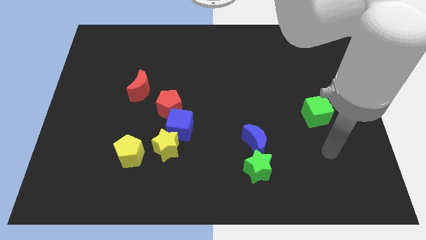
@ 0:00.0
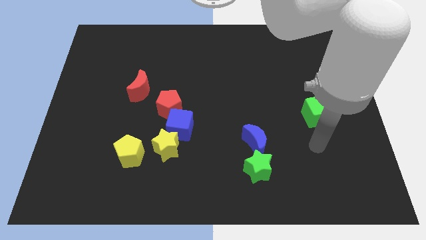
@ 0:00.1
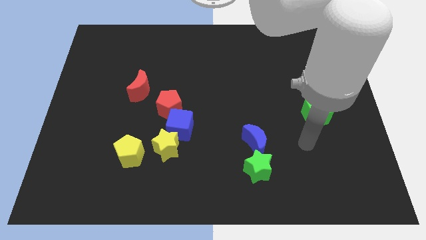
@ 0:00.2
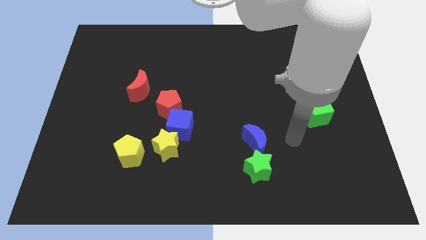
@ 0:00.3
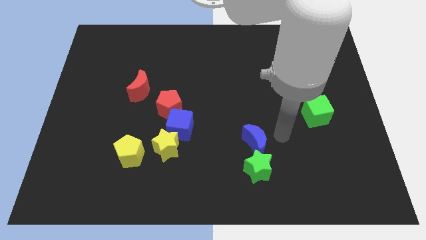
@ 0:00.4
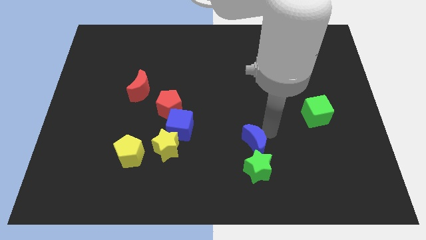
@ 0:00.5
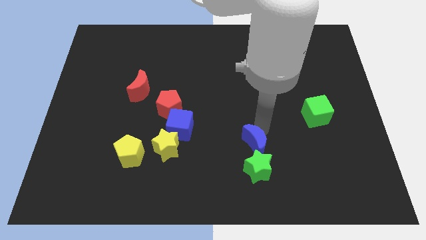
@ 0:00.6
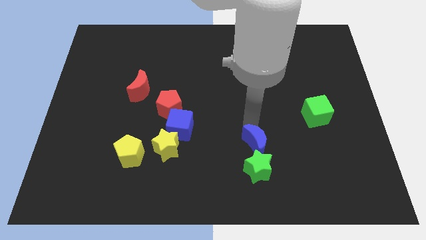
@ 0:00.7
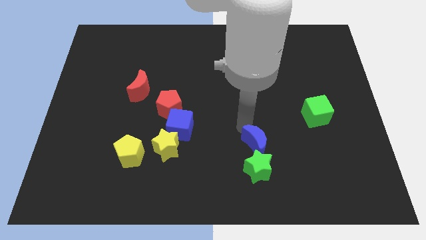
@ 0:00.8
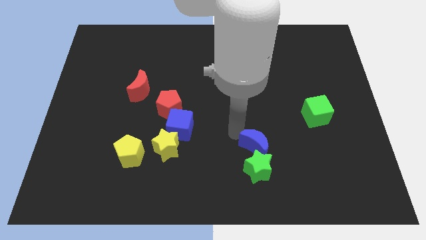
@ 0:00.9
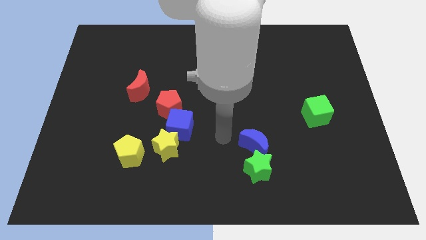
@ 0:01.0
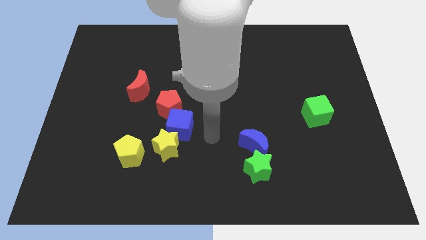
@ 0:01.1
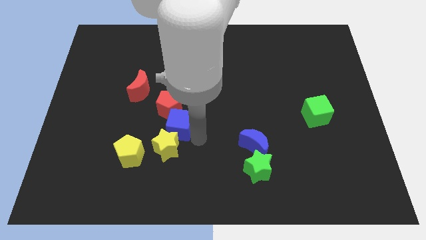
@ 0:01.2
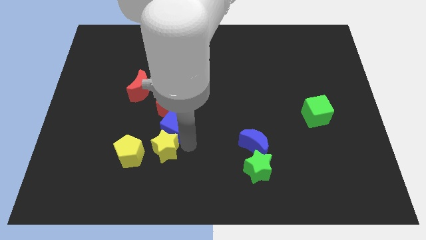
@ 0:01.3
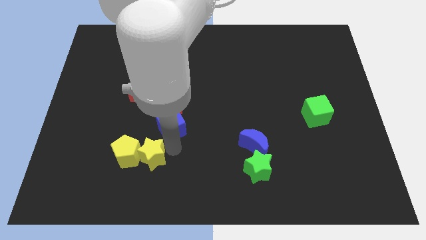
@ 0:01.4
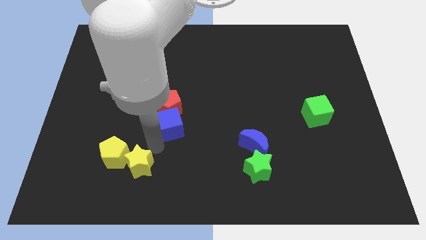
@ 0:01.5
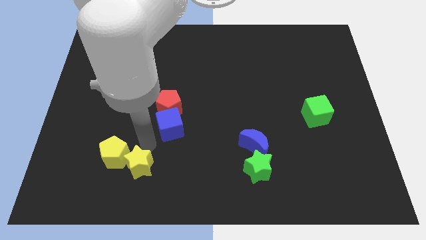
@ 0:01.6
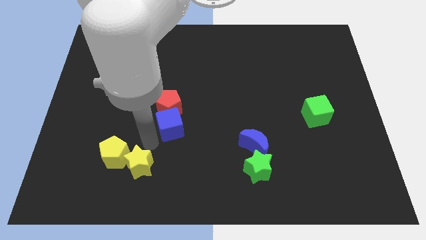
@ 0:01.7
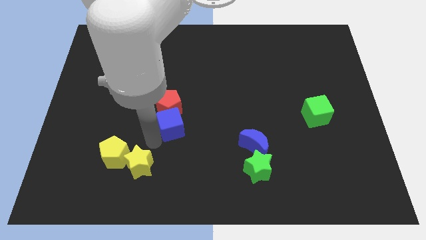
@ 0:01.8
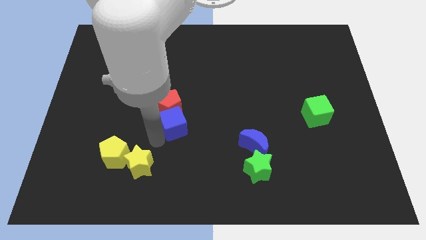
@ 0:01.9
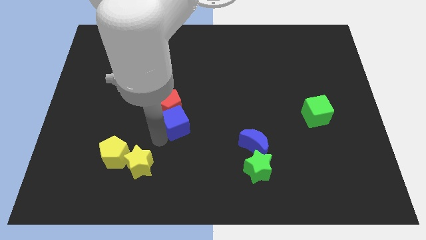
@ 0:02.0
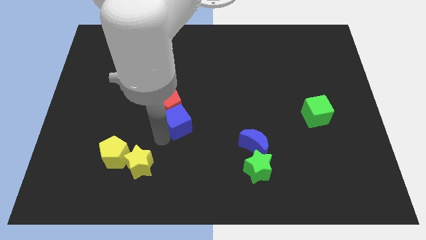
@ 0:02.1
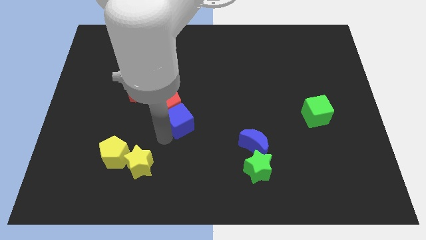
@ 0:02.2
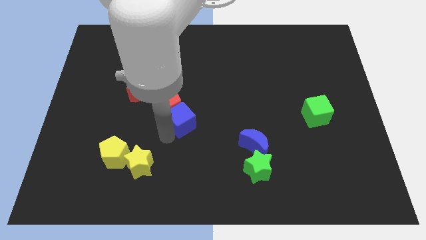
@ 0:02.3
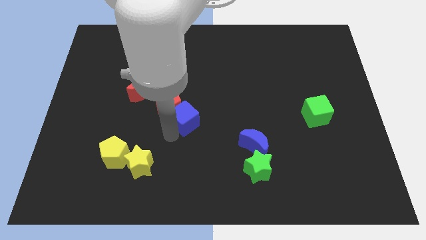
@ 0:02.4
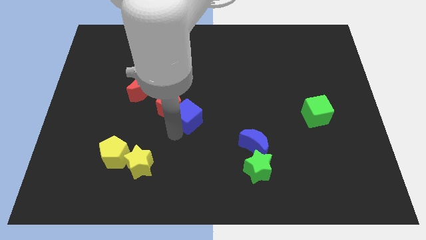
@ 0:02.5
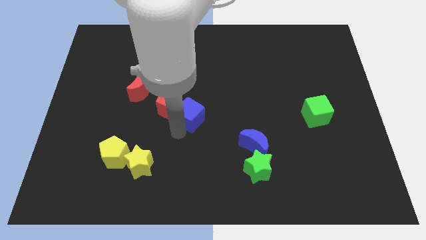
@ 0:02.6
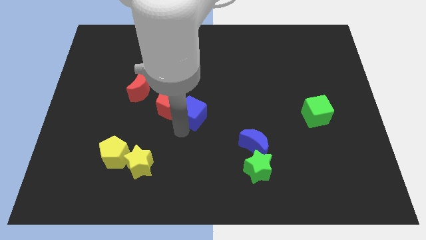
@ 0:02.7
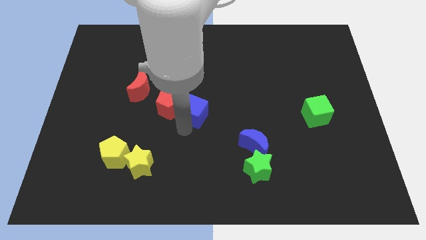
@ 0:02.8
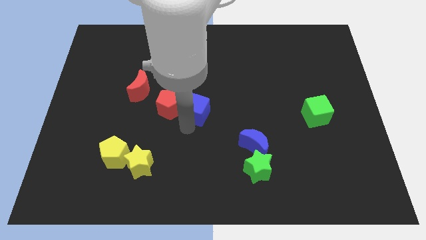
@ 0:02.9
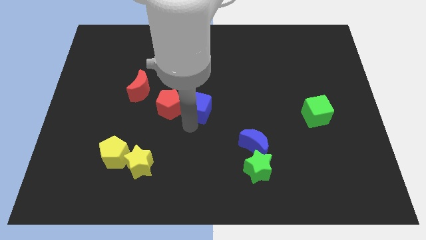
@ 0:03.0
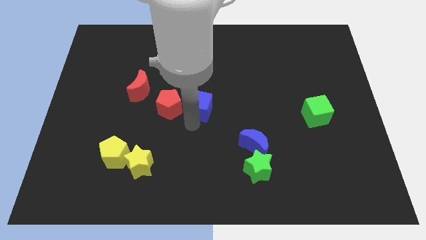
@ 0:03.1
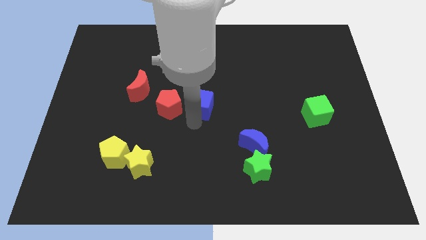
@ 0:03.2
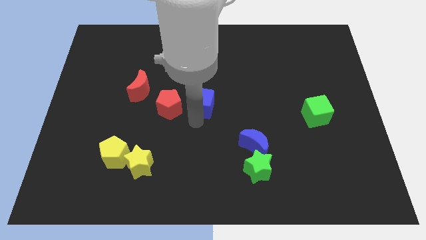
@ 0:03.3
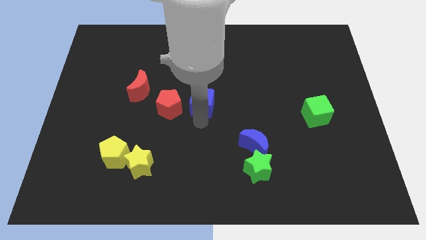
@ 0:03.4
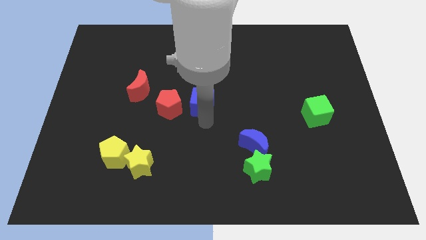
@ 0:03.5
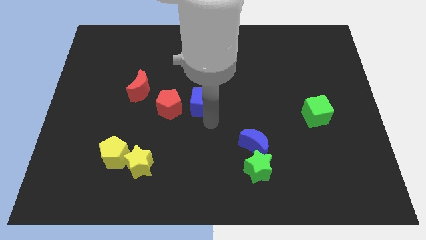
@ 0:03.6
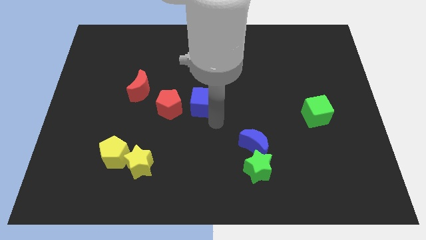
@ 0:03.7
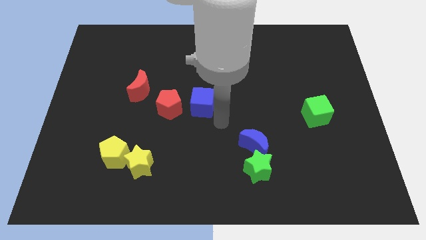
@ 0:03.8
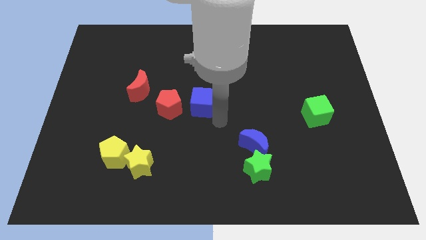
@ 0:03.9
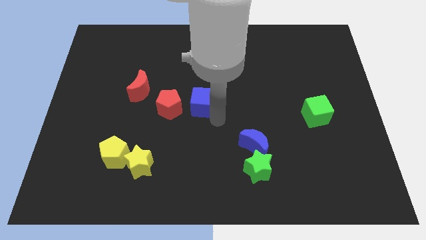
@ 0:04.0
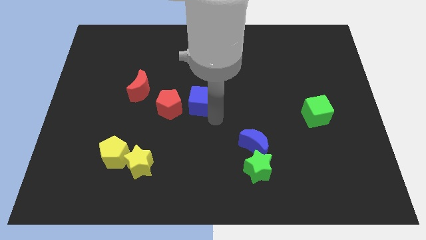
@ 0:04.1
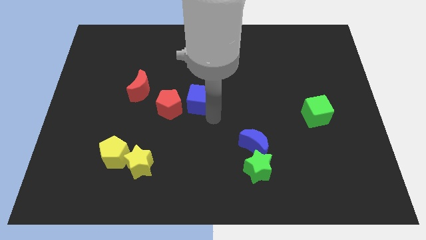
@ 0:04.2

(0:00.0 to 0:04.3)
move the blue cube slightly upwards

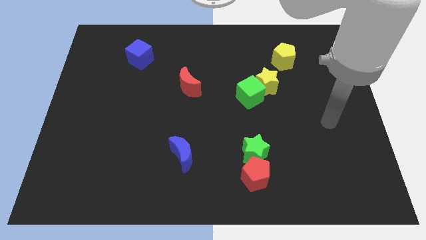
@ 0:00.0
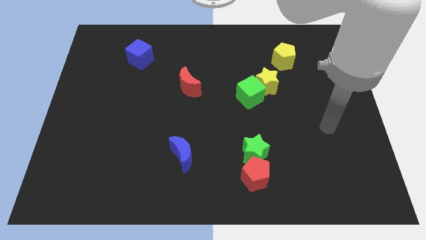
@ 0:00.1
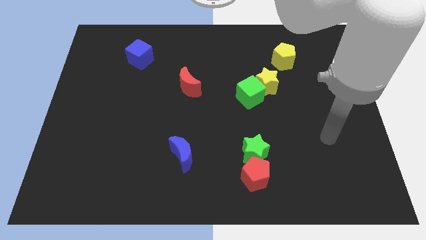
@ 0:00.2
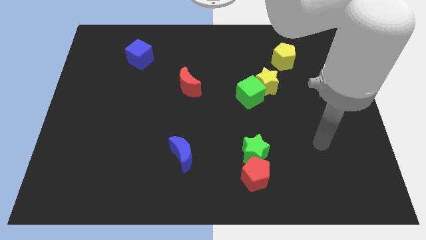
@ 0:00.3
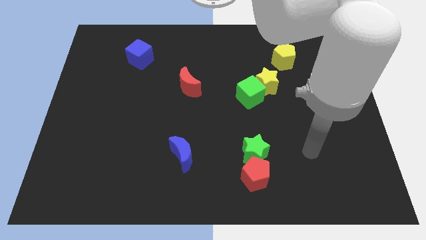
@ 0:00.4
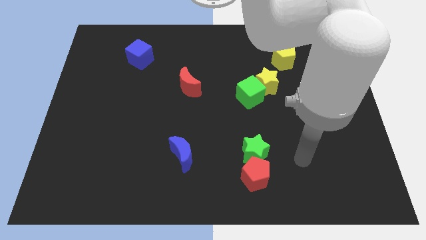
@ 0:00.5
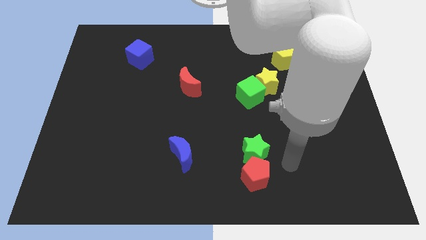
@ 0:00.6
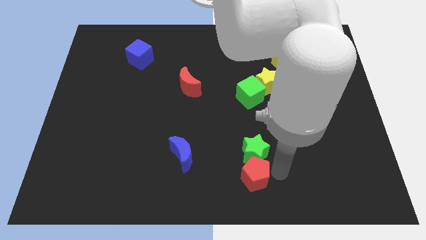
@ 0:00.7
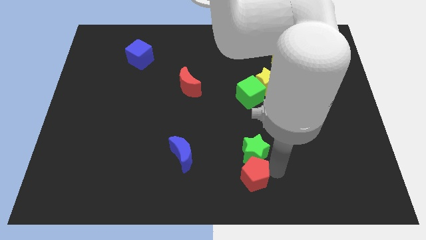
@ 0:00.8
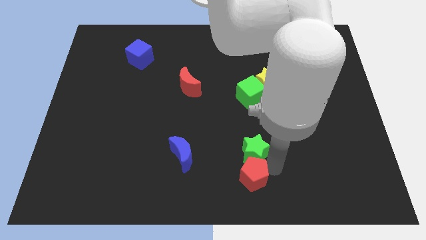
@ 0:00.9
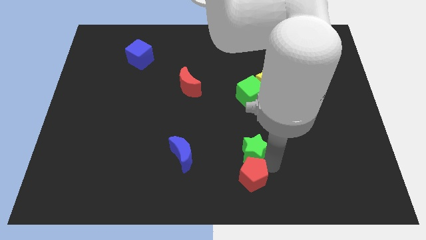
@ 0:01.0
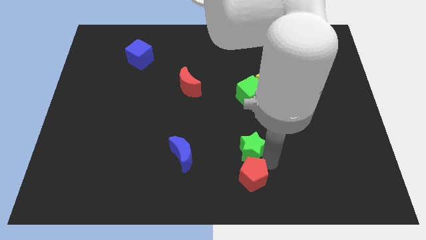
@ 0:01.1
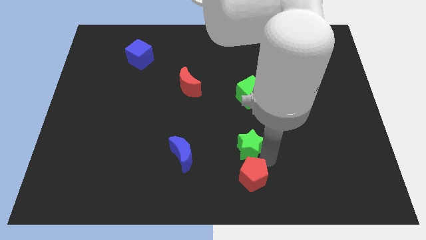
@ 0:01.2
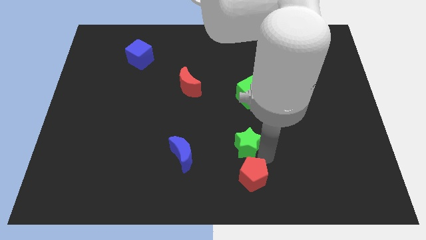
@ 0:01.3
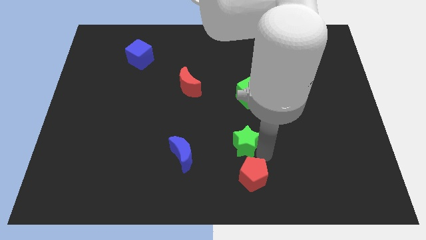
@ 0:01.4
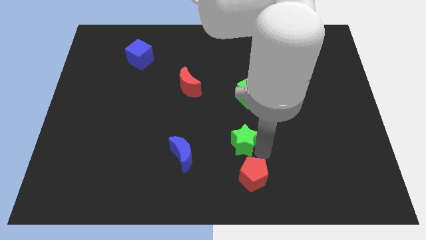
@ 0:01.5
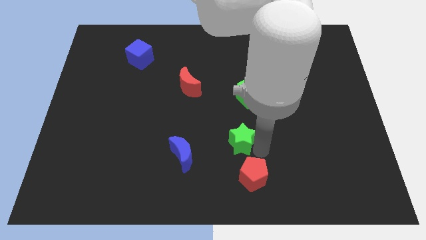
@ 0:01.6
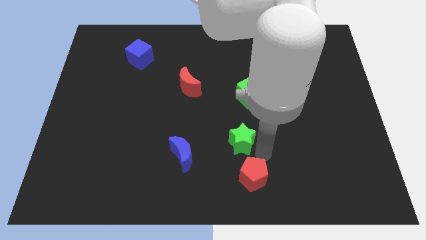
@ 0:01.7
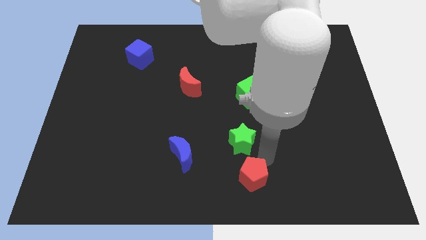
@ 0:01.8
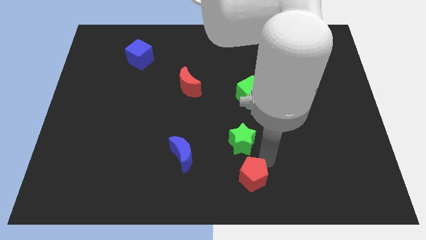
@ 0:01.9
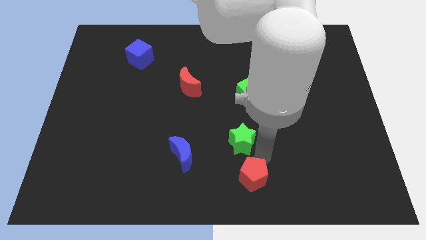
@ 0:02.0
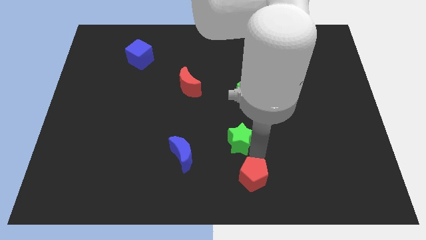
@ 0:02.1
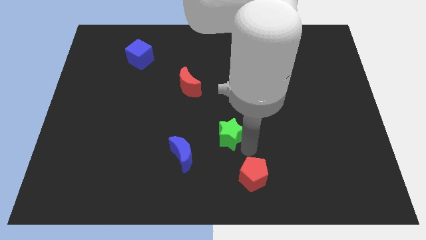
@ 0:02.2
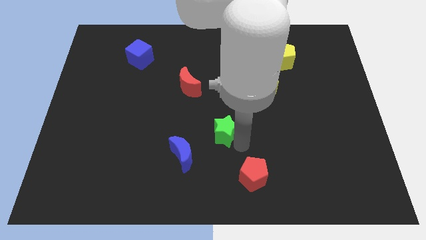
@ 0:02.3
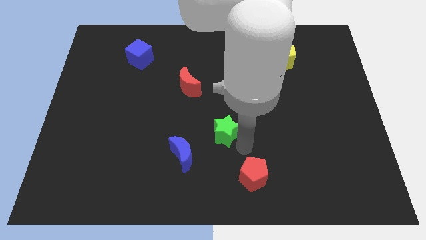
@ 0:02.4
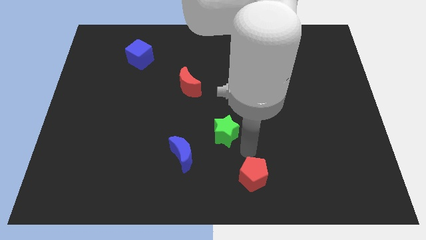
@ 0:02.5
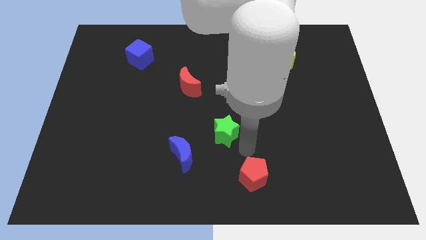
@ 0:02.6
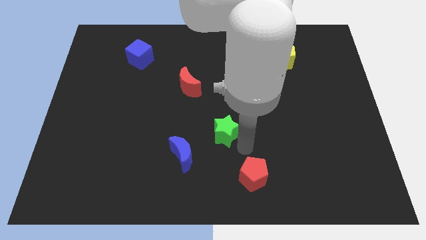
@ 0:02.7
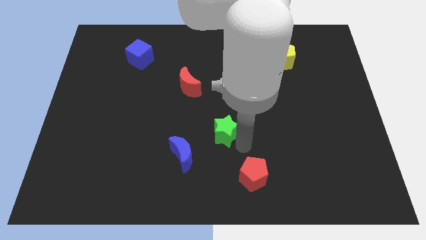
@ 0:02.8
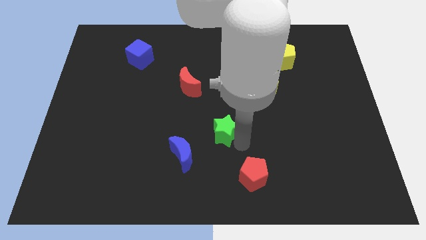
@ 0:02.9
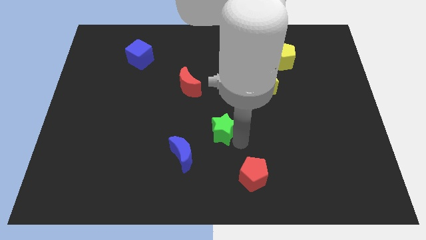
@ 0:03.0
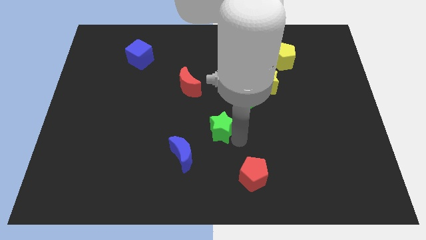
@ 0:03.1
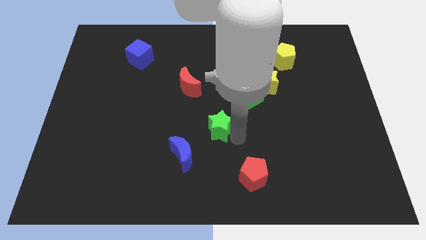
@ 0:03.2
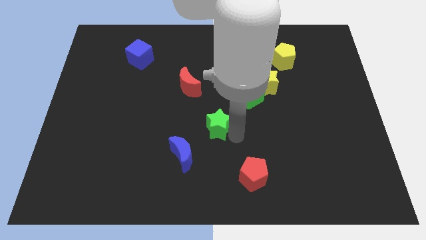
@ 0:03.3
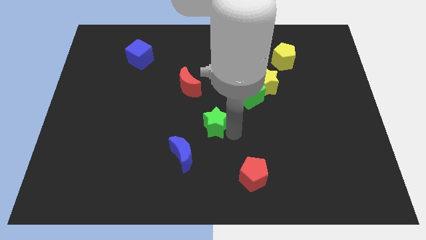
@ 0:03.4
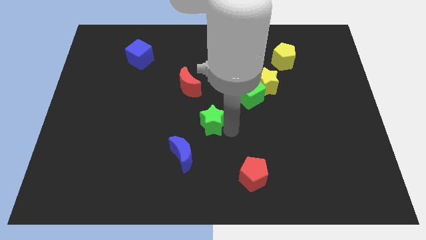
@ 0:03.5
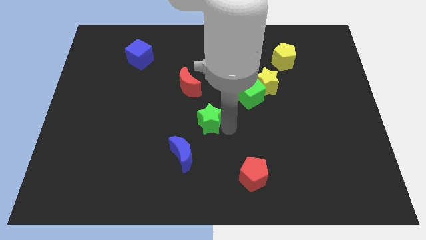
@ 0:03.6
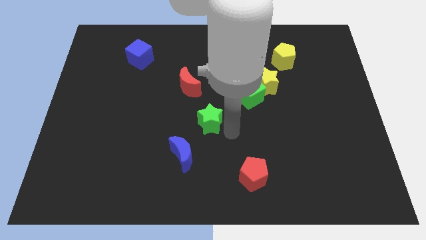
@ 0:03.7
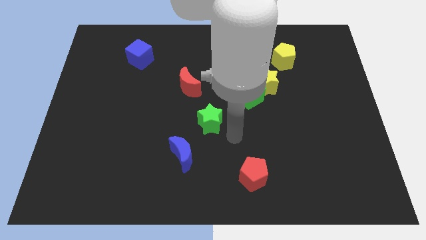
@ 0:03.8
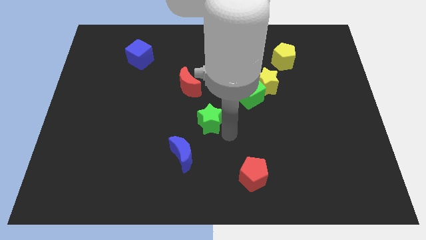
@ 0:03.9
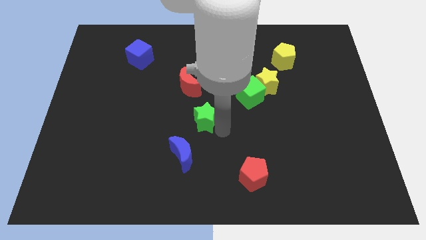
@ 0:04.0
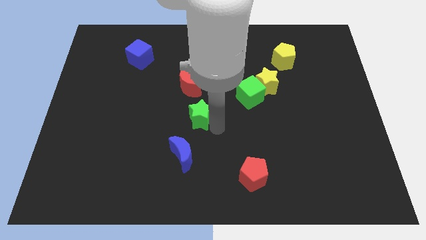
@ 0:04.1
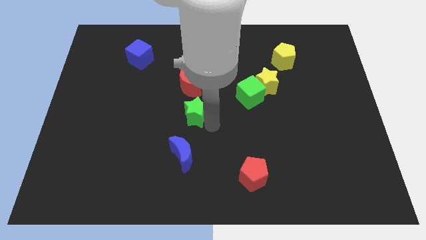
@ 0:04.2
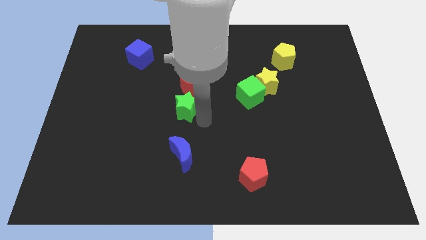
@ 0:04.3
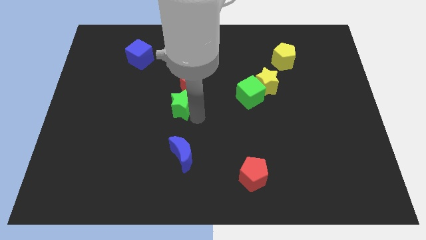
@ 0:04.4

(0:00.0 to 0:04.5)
move the green star upwards and left diagonally
